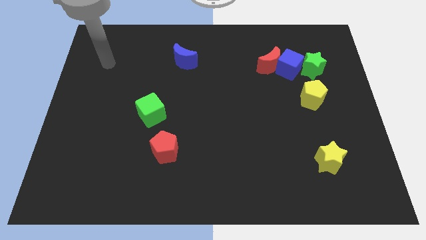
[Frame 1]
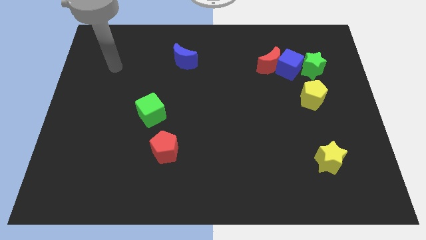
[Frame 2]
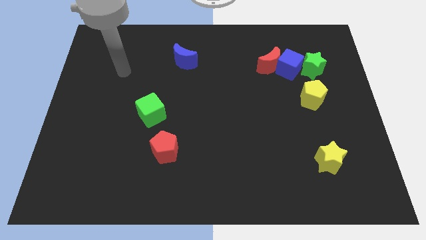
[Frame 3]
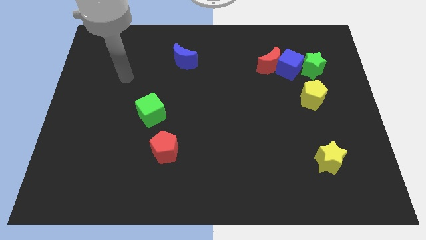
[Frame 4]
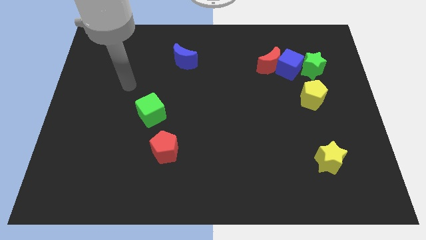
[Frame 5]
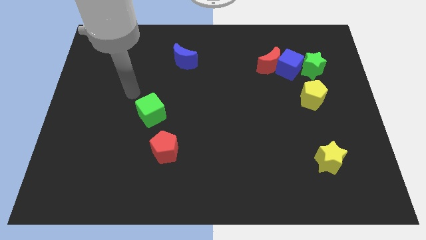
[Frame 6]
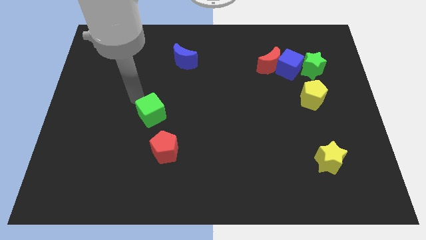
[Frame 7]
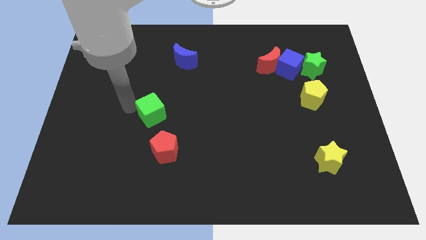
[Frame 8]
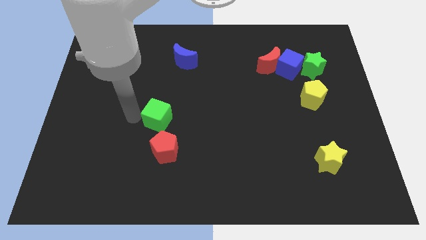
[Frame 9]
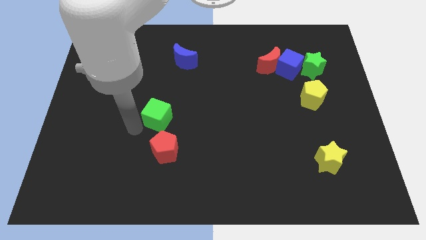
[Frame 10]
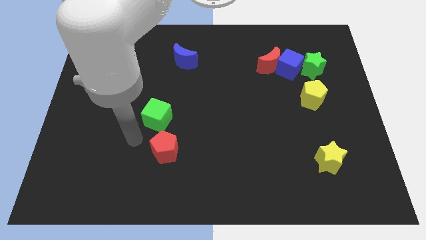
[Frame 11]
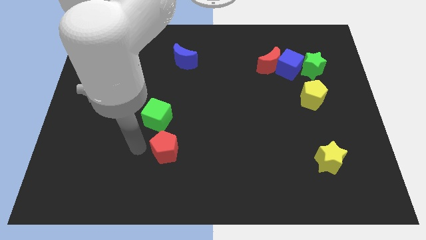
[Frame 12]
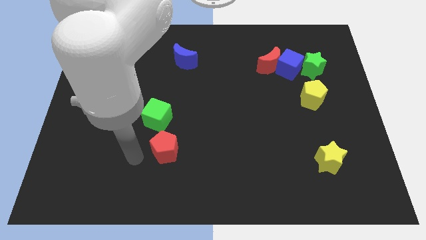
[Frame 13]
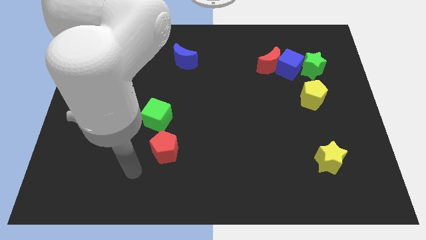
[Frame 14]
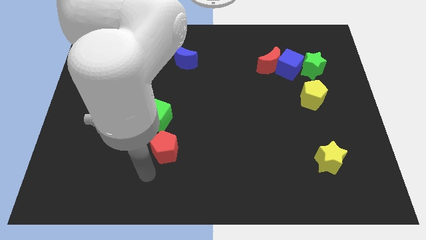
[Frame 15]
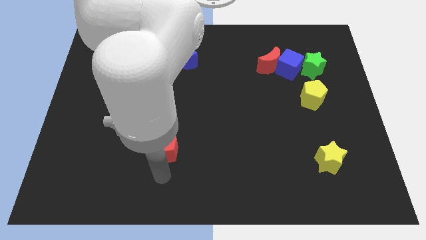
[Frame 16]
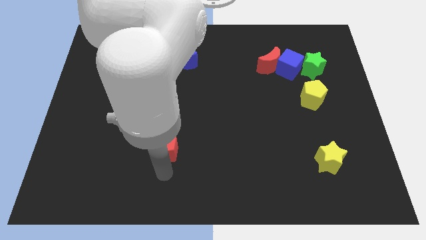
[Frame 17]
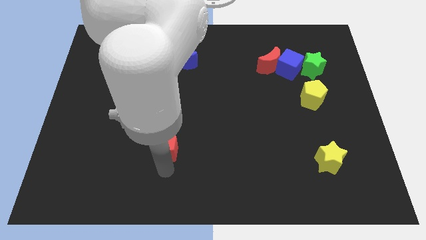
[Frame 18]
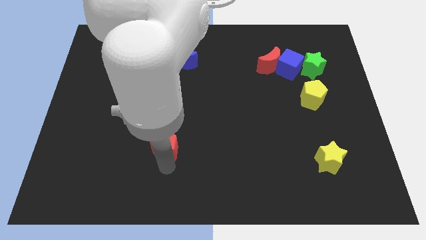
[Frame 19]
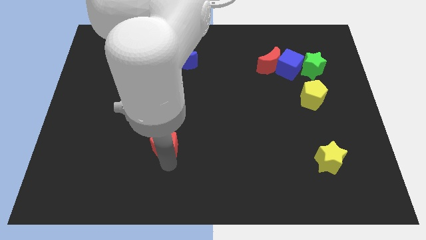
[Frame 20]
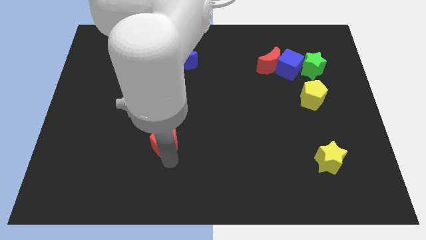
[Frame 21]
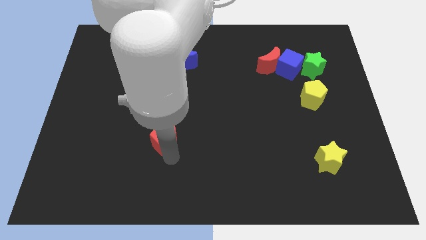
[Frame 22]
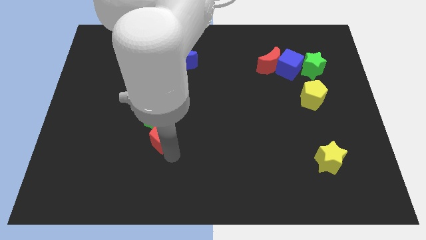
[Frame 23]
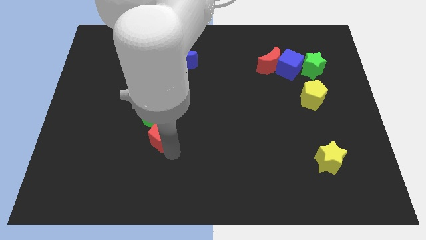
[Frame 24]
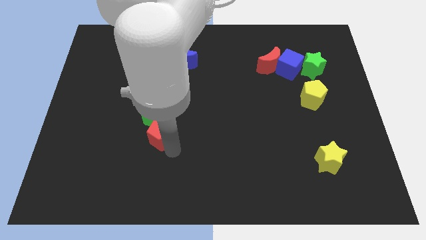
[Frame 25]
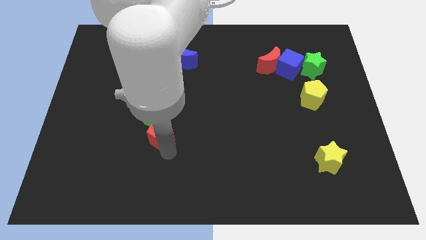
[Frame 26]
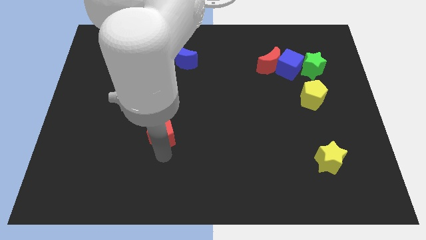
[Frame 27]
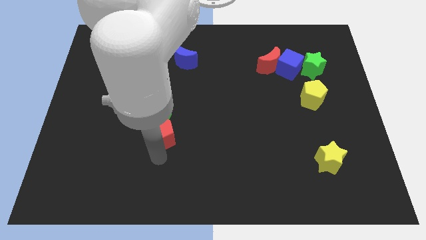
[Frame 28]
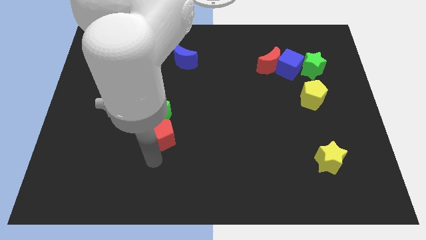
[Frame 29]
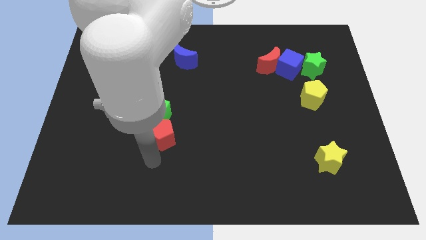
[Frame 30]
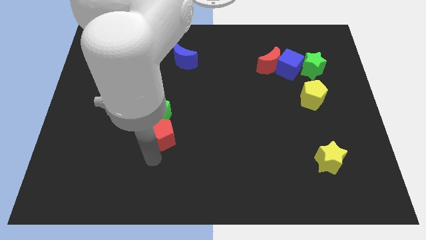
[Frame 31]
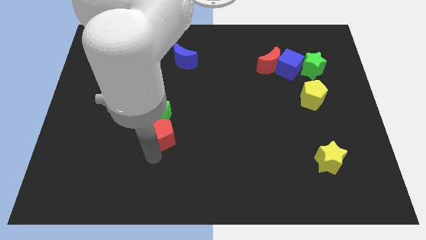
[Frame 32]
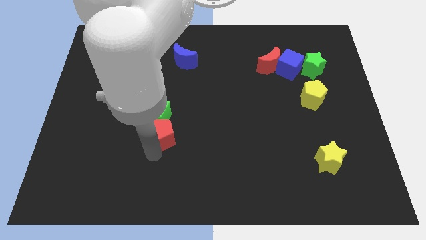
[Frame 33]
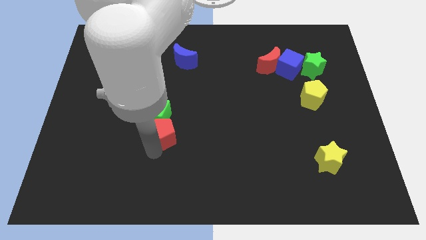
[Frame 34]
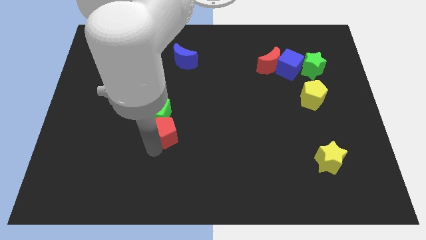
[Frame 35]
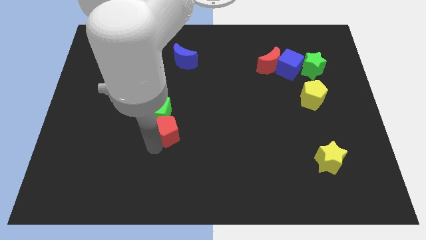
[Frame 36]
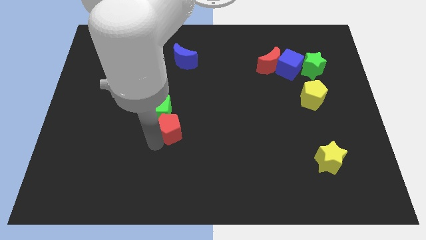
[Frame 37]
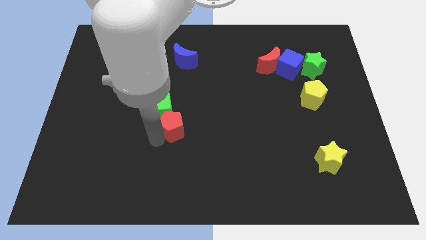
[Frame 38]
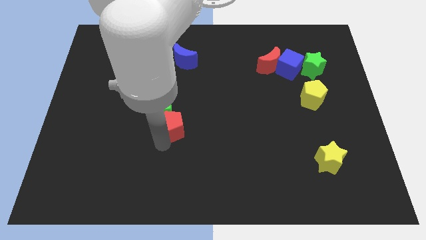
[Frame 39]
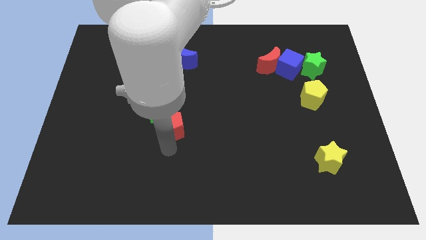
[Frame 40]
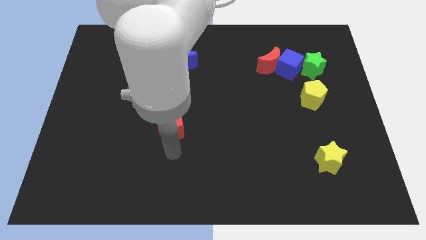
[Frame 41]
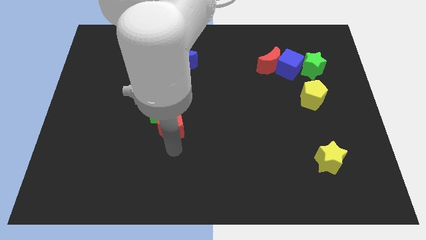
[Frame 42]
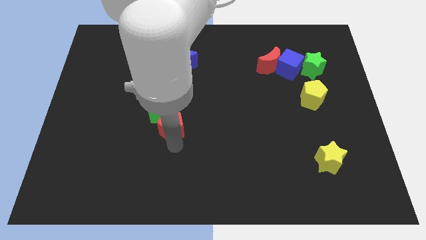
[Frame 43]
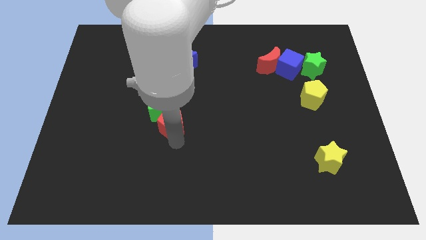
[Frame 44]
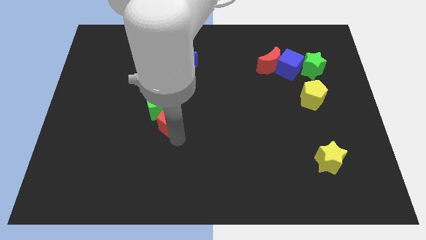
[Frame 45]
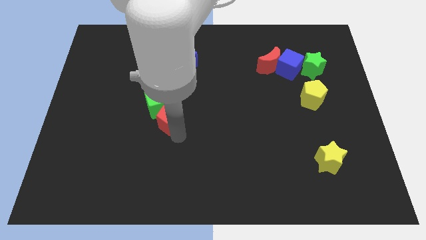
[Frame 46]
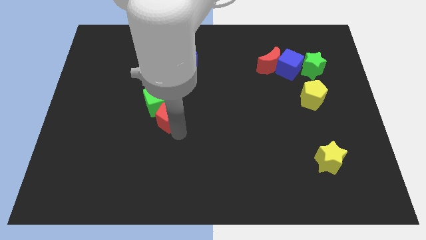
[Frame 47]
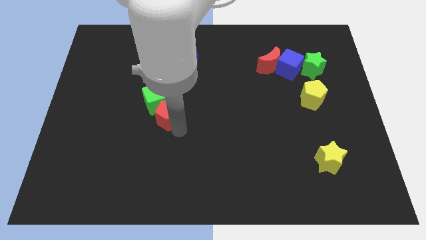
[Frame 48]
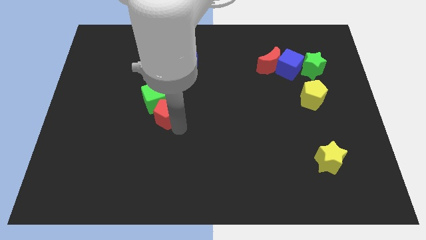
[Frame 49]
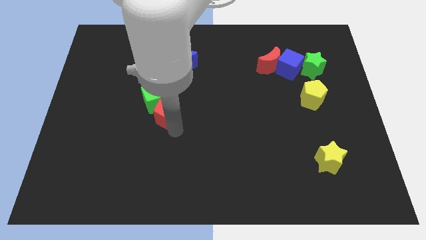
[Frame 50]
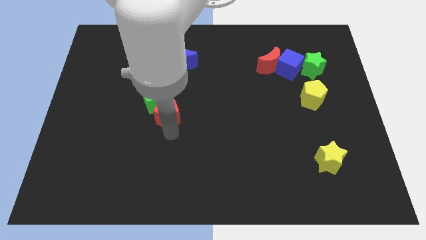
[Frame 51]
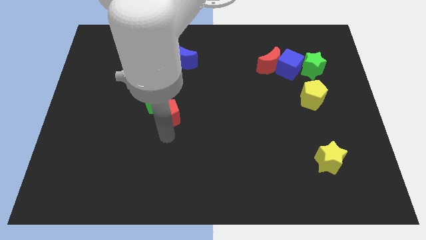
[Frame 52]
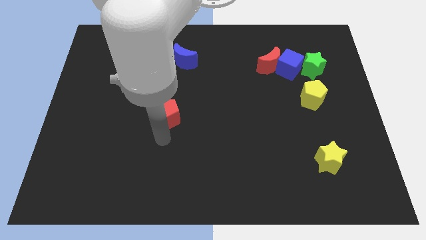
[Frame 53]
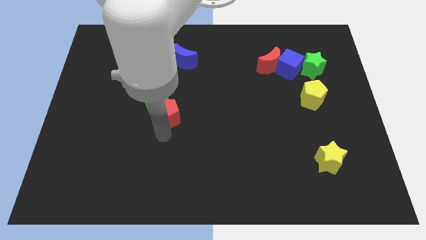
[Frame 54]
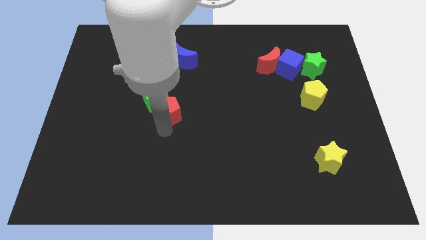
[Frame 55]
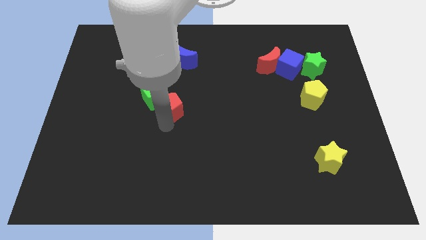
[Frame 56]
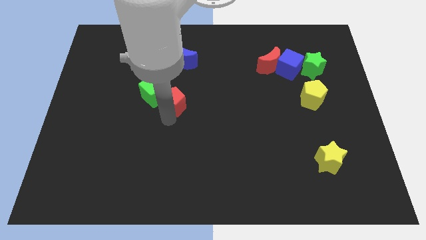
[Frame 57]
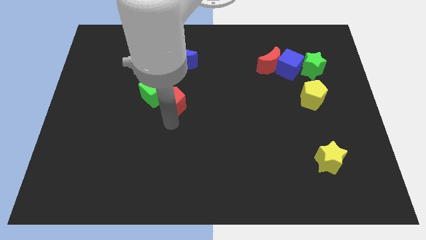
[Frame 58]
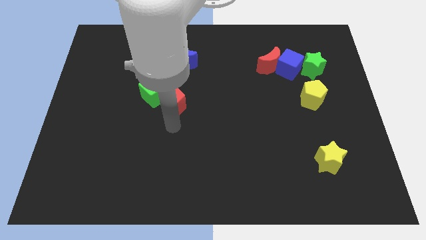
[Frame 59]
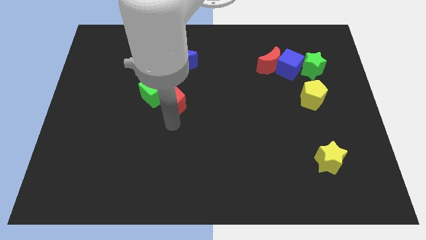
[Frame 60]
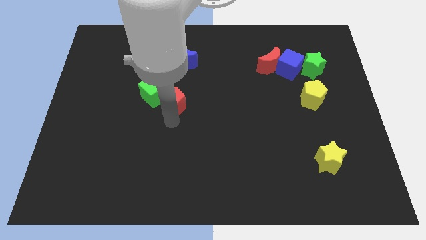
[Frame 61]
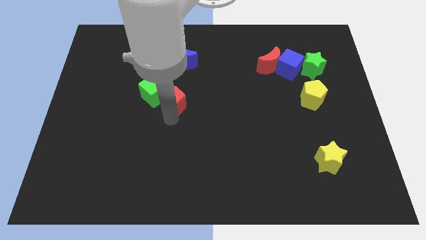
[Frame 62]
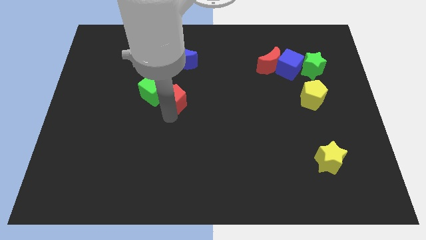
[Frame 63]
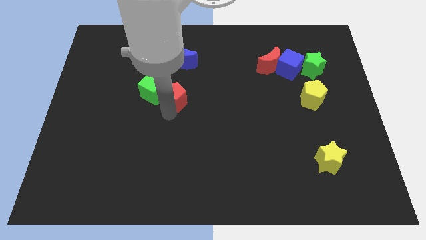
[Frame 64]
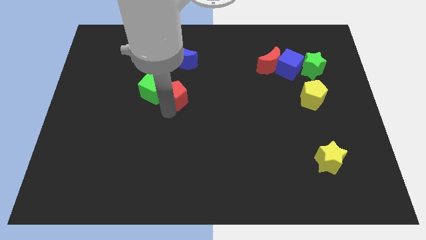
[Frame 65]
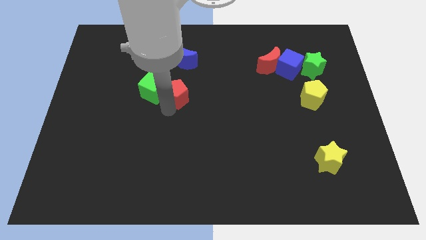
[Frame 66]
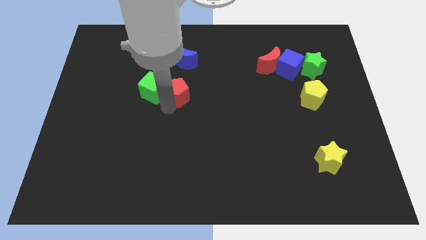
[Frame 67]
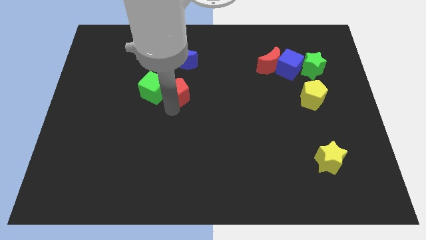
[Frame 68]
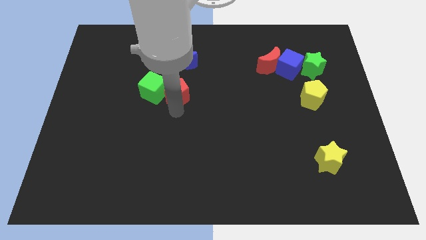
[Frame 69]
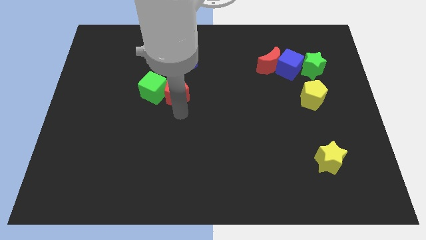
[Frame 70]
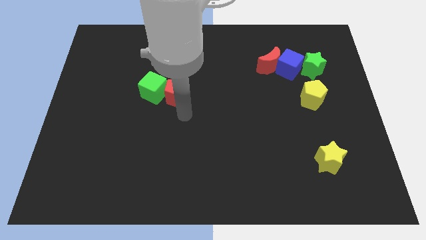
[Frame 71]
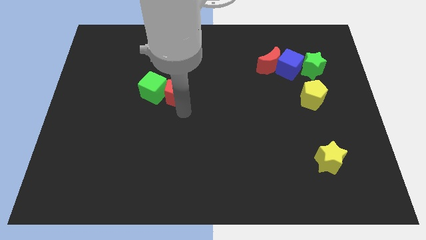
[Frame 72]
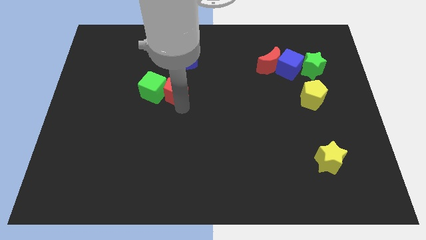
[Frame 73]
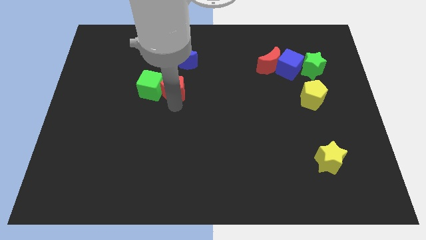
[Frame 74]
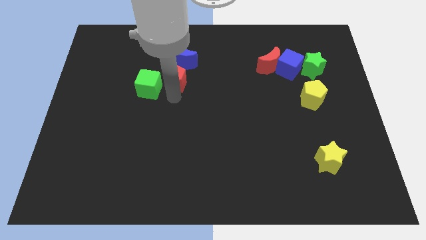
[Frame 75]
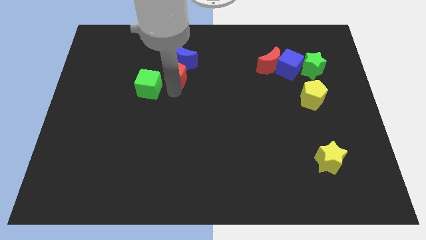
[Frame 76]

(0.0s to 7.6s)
slide the red pentagon next to the blue moon

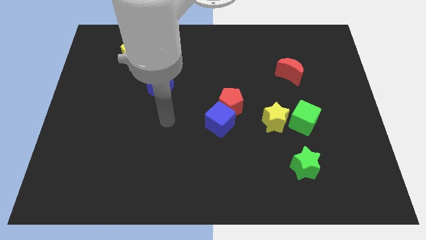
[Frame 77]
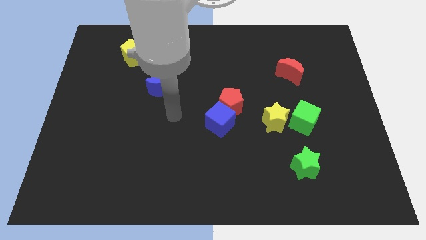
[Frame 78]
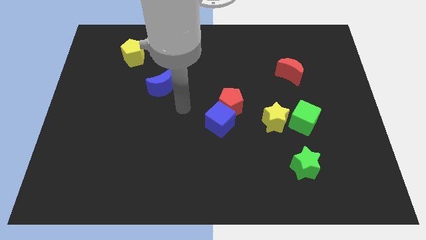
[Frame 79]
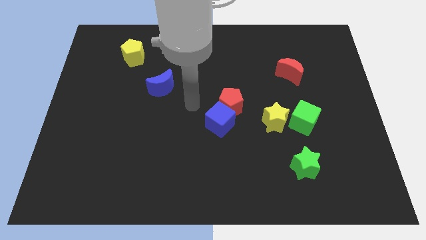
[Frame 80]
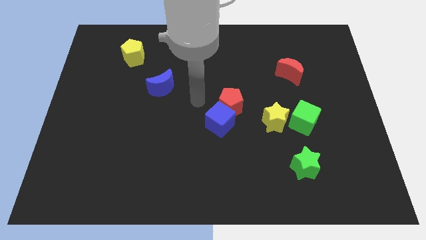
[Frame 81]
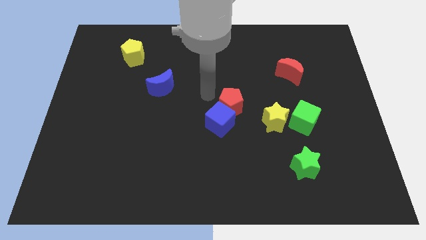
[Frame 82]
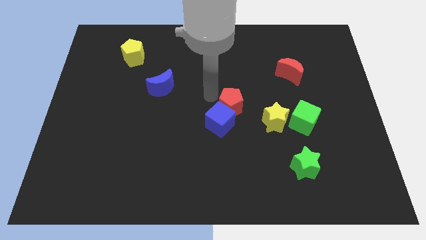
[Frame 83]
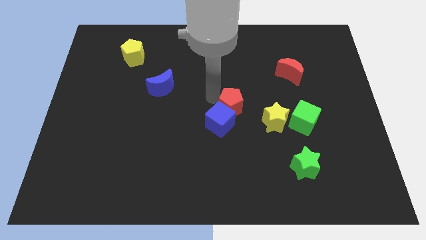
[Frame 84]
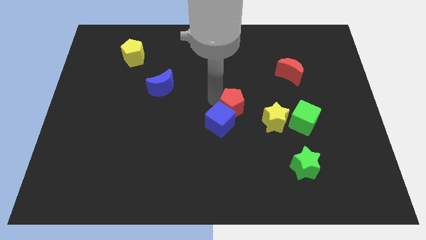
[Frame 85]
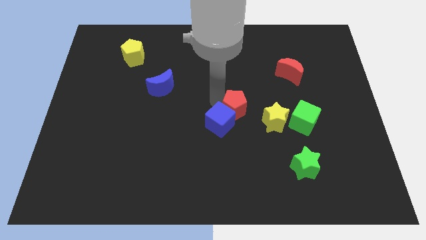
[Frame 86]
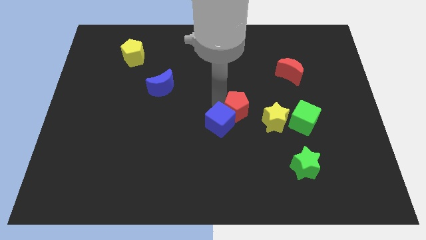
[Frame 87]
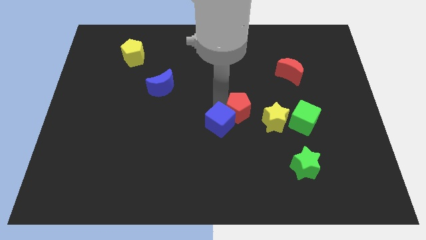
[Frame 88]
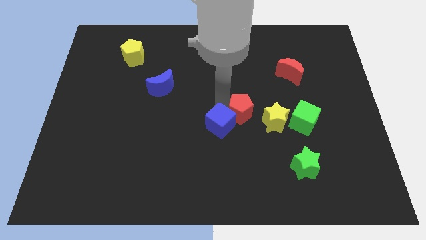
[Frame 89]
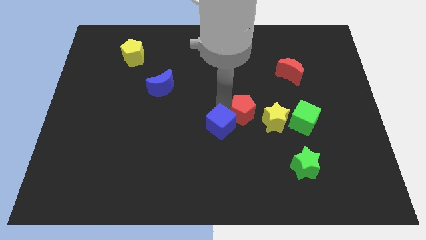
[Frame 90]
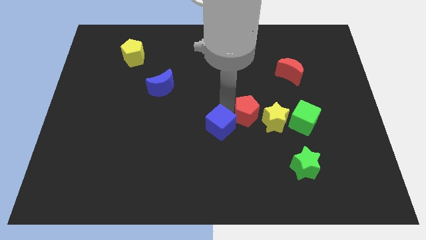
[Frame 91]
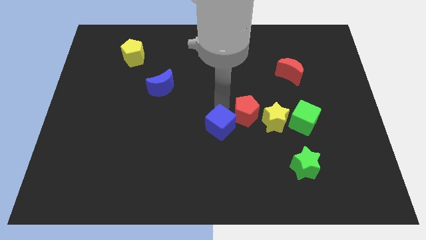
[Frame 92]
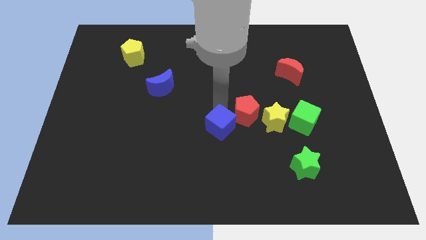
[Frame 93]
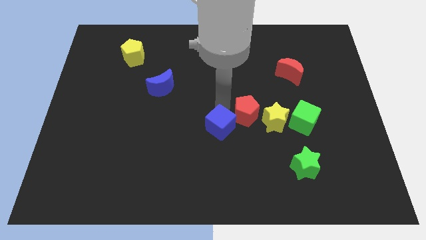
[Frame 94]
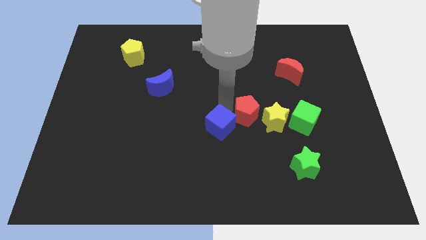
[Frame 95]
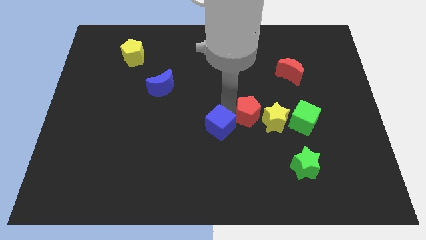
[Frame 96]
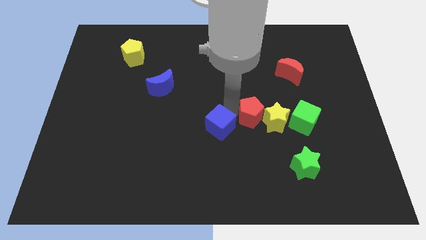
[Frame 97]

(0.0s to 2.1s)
put the red pentagon towards the yellow star
